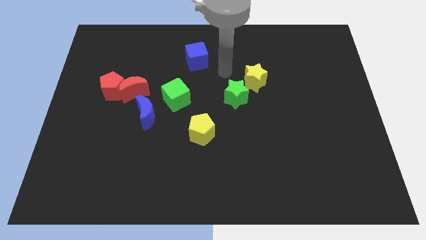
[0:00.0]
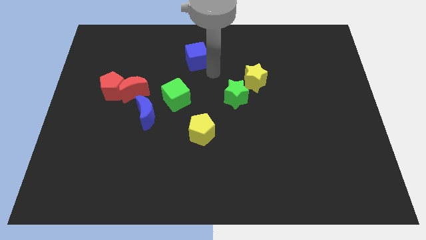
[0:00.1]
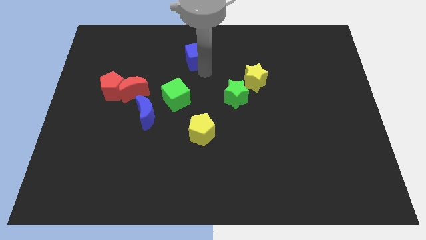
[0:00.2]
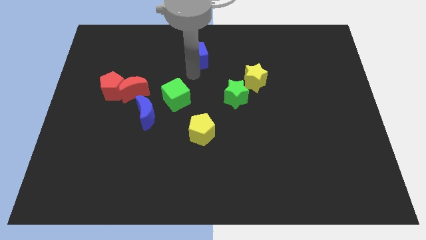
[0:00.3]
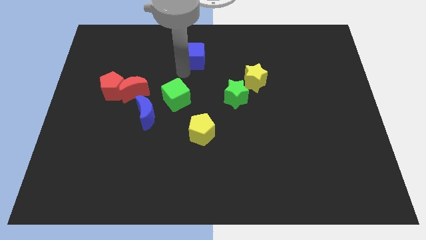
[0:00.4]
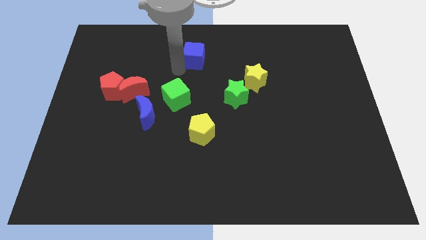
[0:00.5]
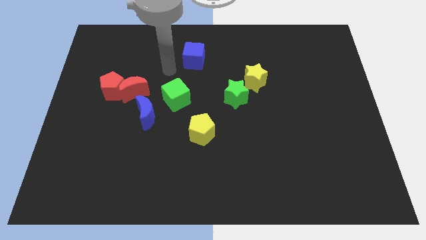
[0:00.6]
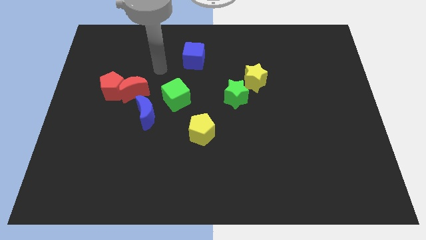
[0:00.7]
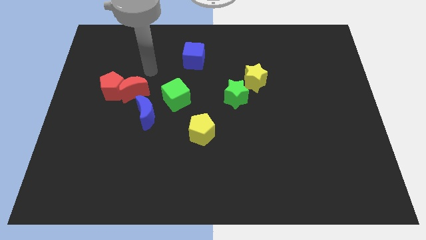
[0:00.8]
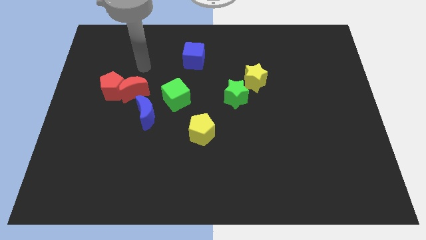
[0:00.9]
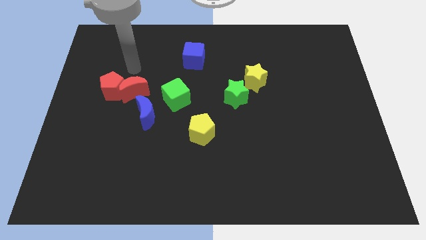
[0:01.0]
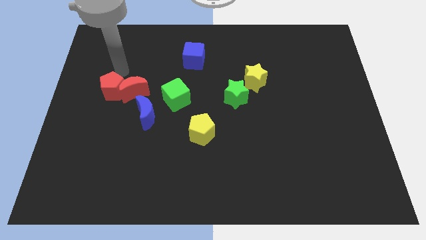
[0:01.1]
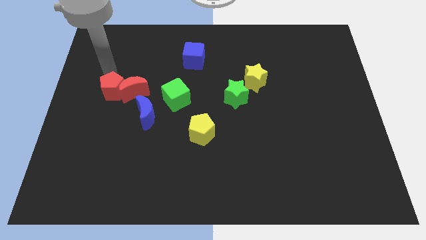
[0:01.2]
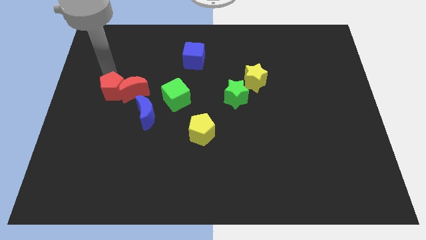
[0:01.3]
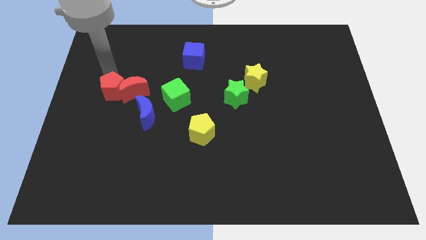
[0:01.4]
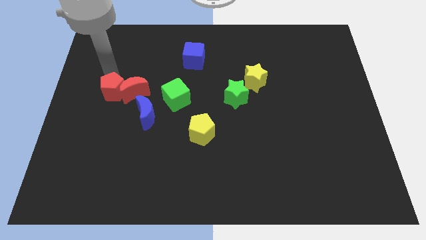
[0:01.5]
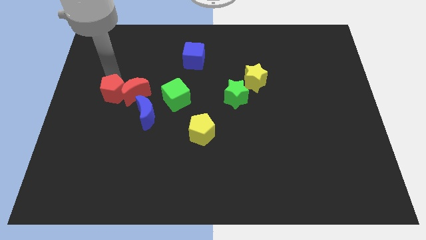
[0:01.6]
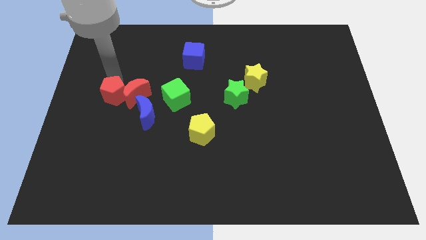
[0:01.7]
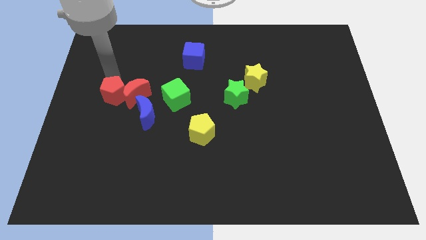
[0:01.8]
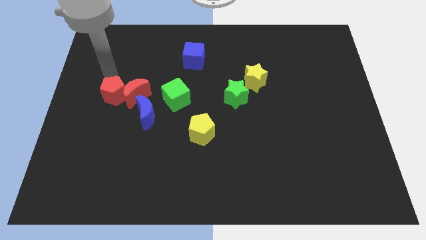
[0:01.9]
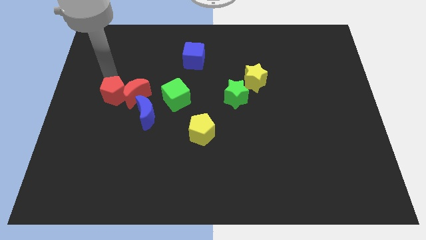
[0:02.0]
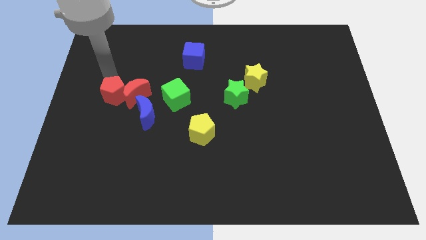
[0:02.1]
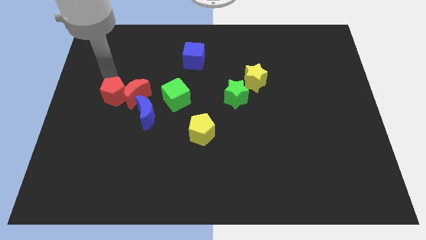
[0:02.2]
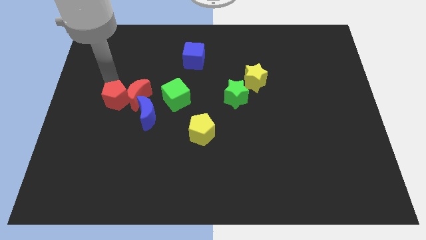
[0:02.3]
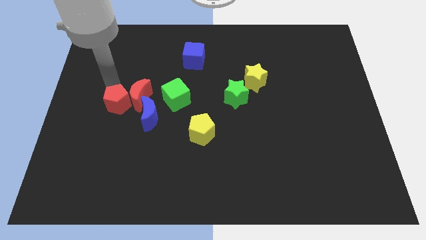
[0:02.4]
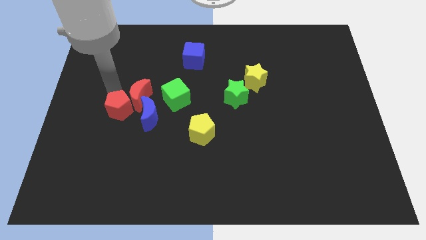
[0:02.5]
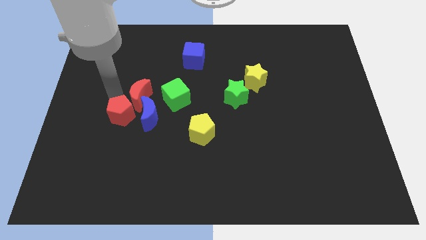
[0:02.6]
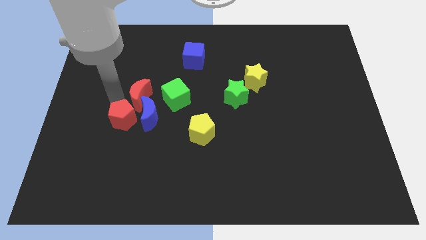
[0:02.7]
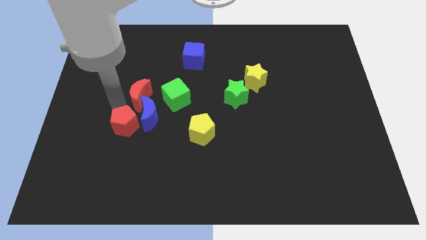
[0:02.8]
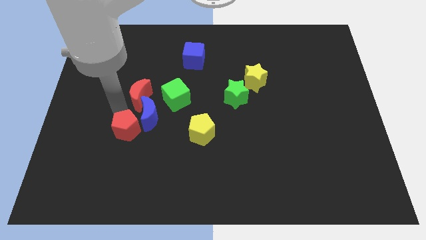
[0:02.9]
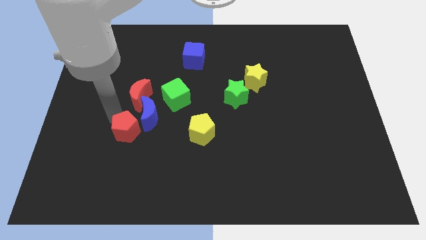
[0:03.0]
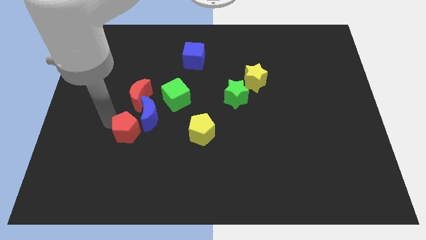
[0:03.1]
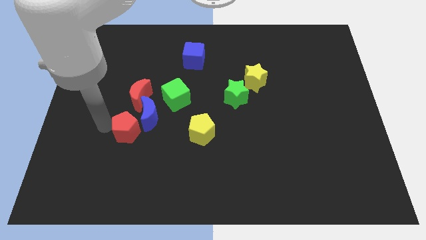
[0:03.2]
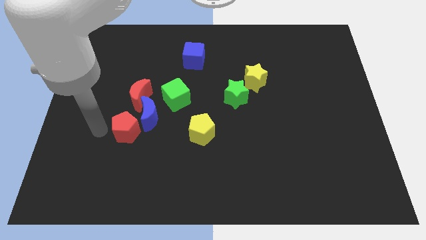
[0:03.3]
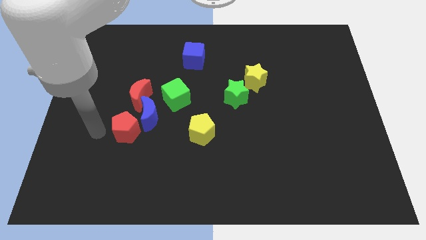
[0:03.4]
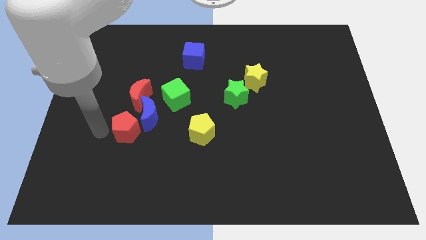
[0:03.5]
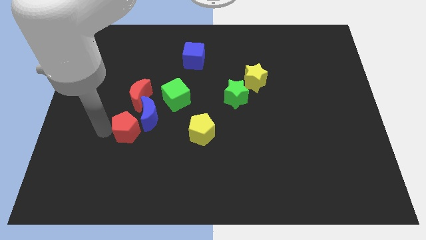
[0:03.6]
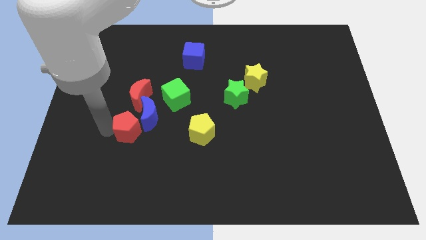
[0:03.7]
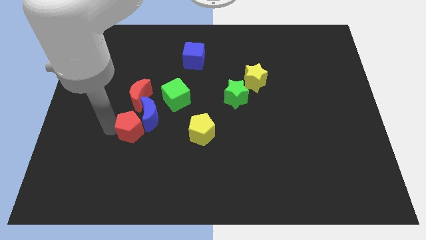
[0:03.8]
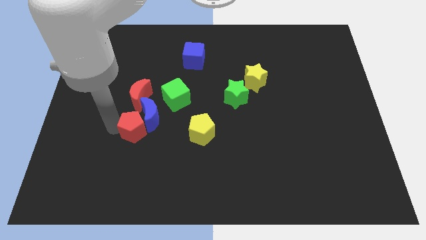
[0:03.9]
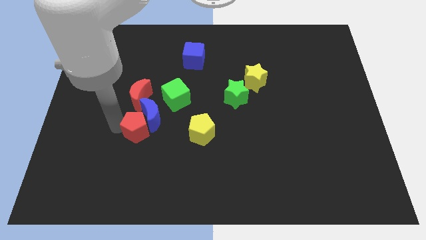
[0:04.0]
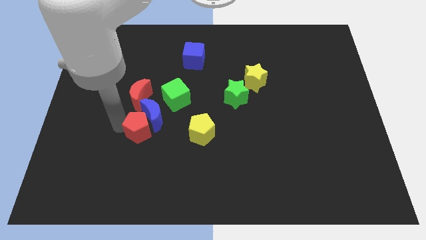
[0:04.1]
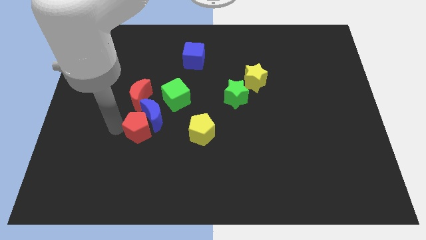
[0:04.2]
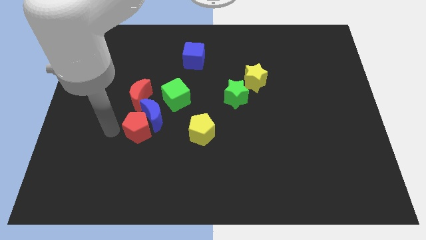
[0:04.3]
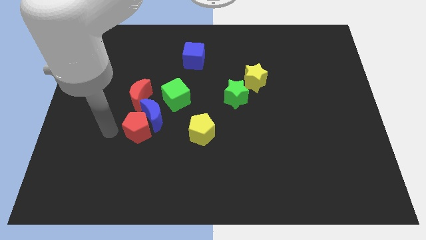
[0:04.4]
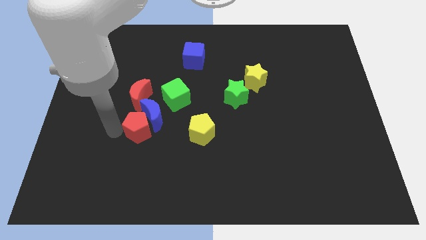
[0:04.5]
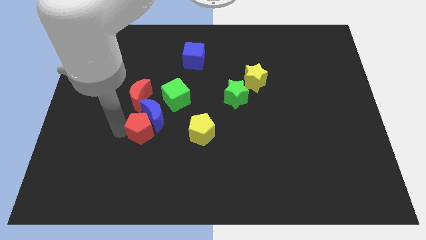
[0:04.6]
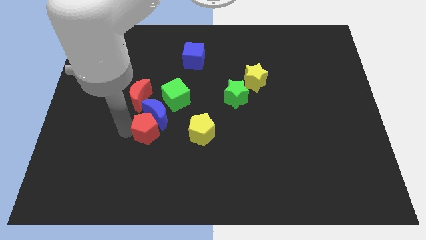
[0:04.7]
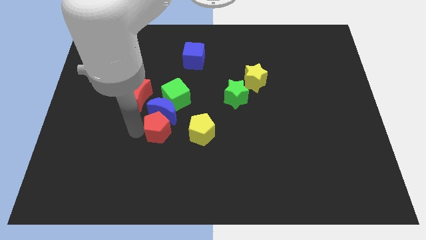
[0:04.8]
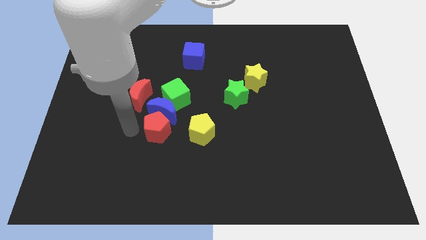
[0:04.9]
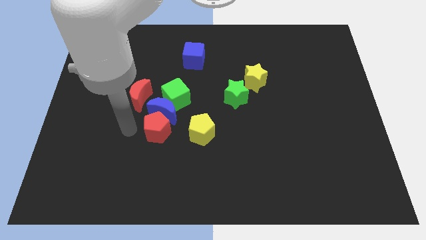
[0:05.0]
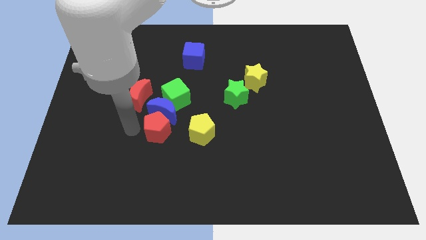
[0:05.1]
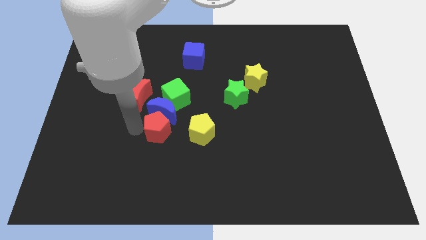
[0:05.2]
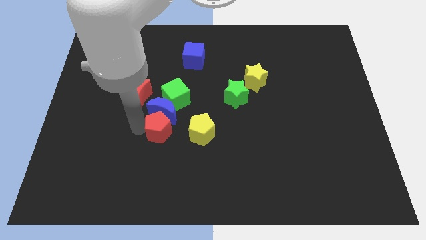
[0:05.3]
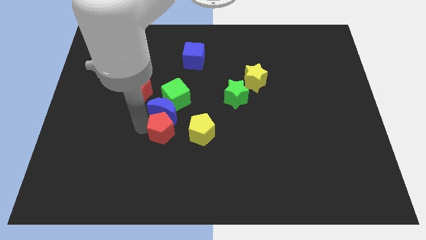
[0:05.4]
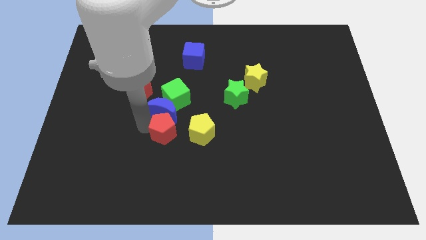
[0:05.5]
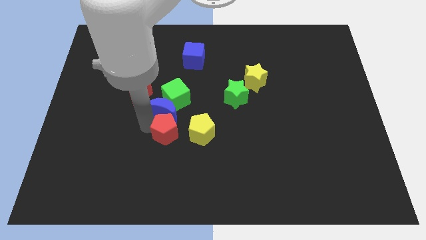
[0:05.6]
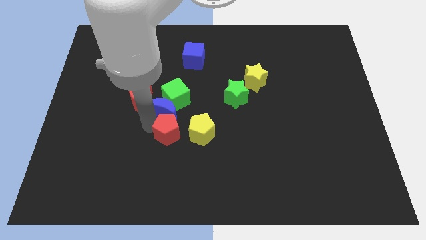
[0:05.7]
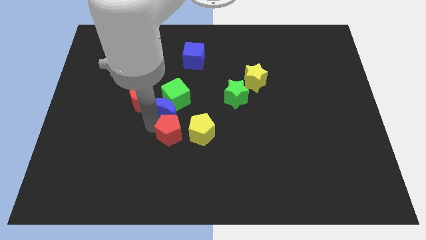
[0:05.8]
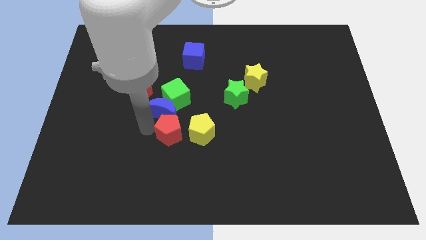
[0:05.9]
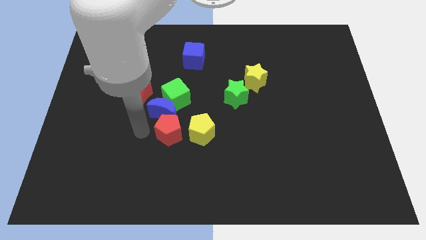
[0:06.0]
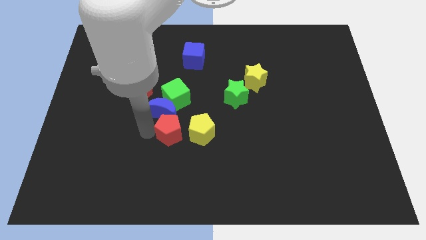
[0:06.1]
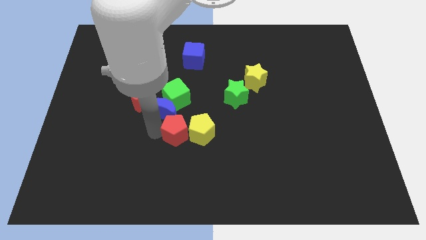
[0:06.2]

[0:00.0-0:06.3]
slide the red pentagon towards the yellow pentagon

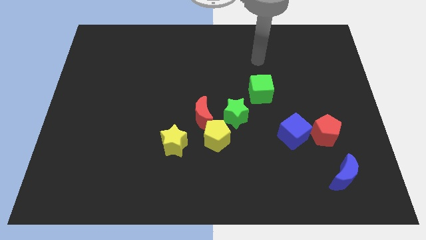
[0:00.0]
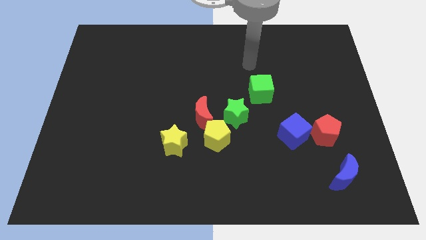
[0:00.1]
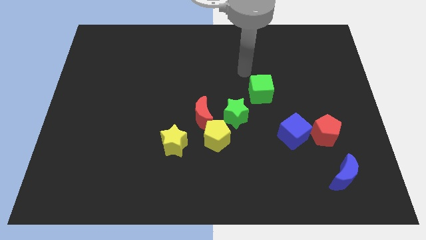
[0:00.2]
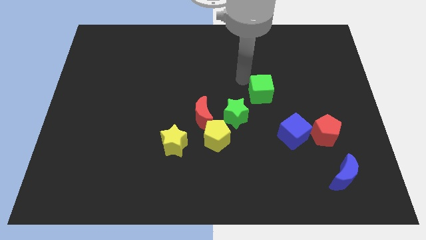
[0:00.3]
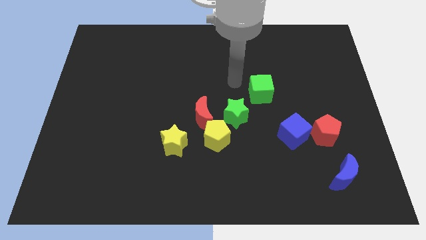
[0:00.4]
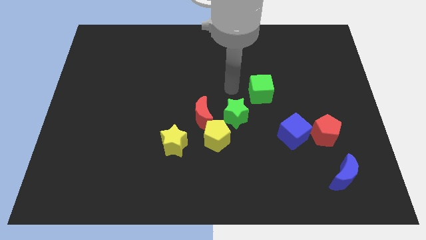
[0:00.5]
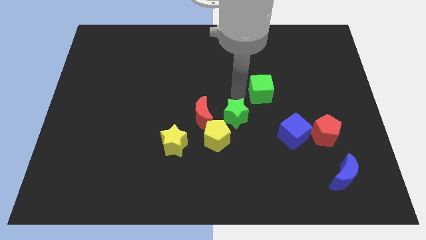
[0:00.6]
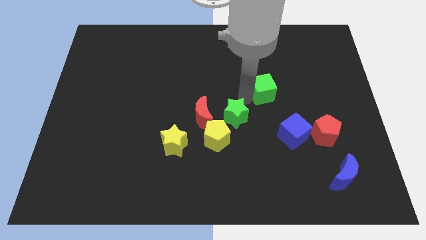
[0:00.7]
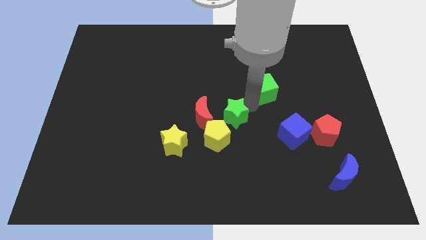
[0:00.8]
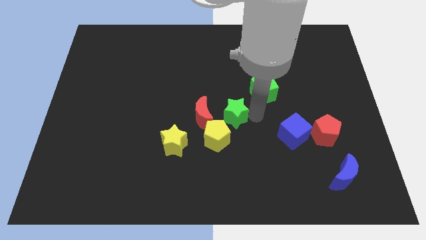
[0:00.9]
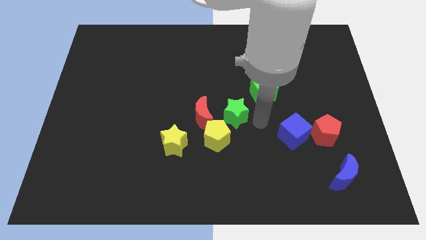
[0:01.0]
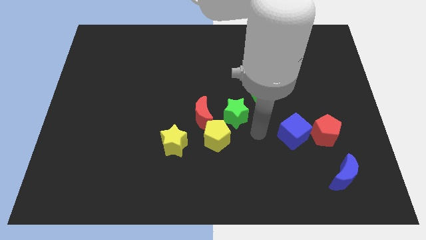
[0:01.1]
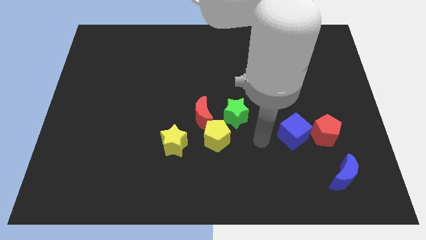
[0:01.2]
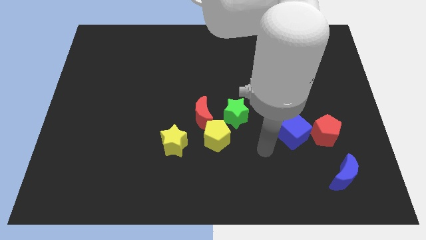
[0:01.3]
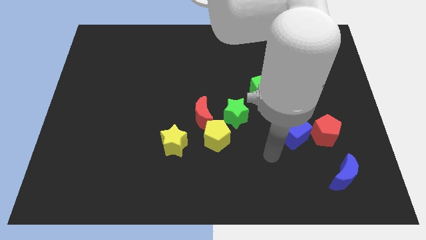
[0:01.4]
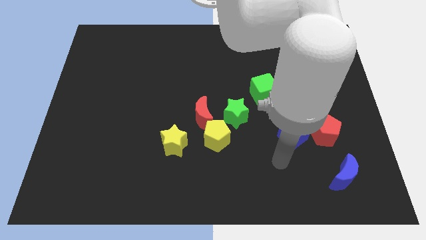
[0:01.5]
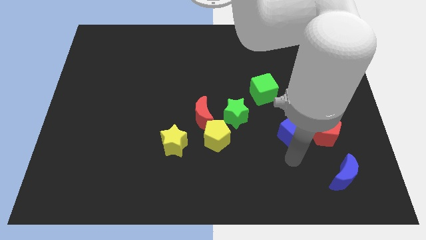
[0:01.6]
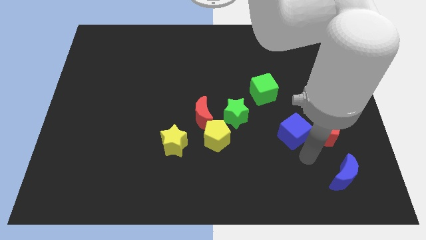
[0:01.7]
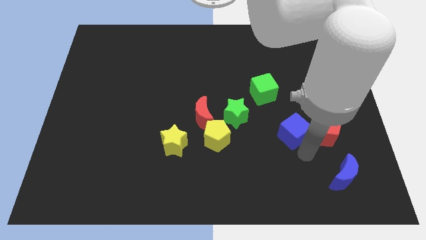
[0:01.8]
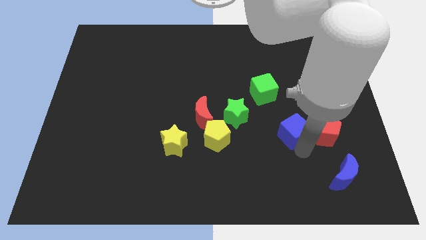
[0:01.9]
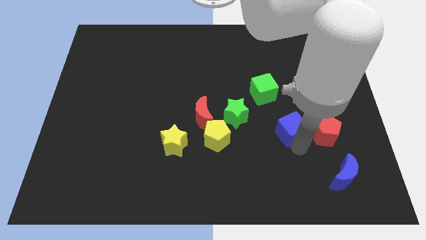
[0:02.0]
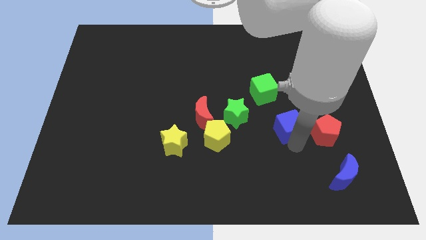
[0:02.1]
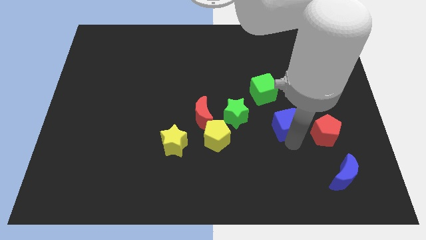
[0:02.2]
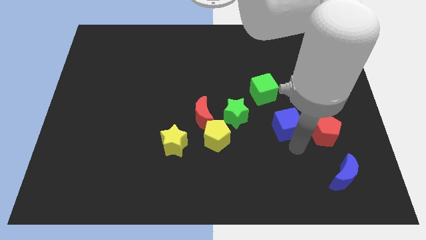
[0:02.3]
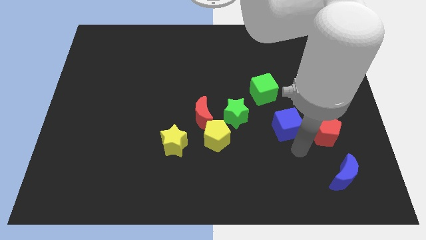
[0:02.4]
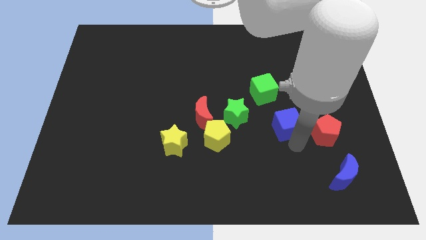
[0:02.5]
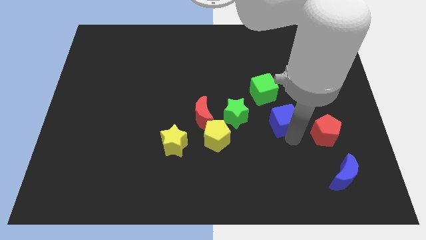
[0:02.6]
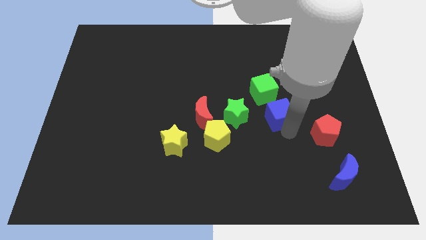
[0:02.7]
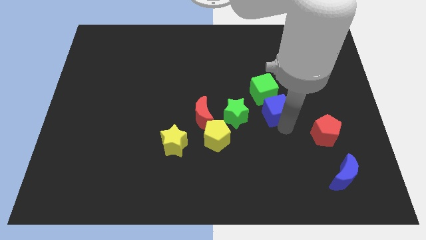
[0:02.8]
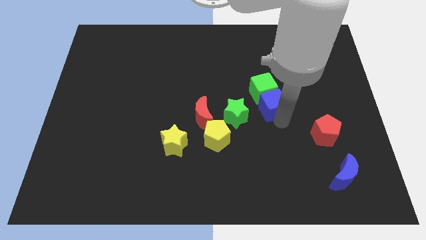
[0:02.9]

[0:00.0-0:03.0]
push the blue cube to the green cube
